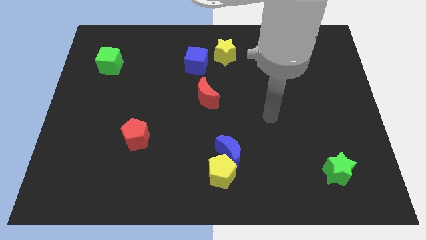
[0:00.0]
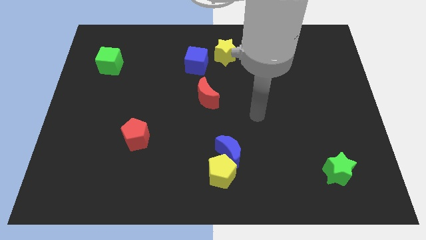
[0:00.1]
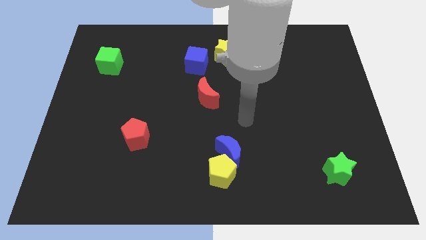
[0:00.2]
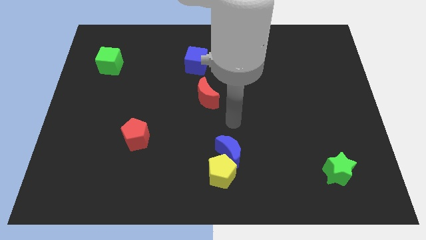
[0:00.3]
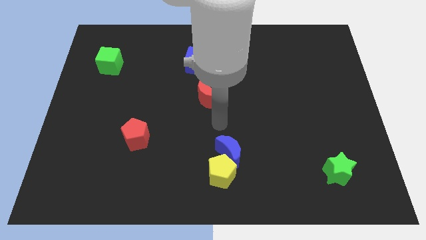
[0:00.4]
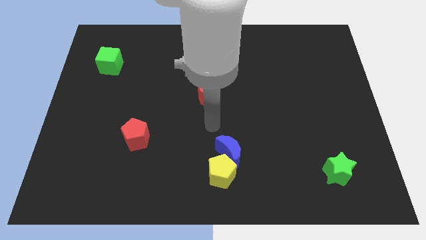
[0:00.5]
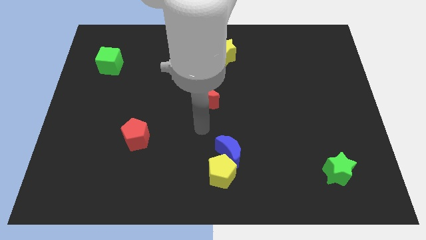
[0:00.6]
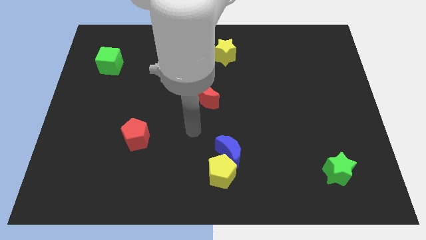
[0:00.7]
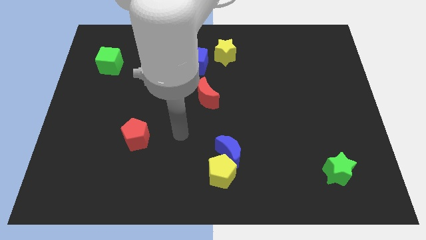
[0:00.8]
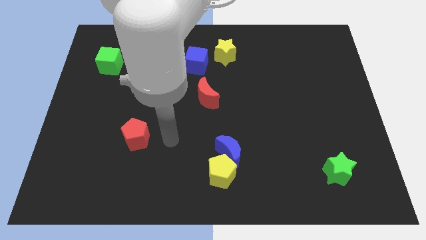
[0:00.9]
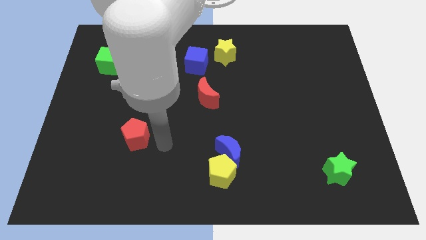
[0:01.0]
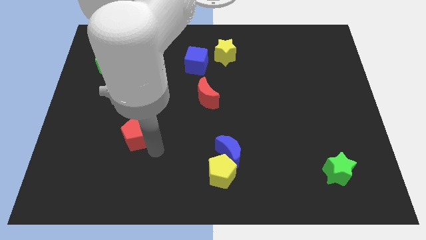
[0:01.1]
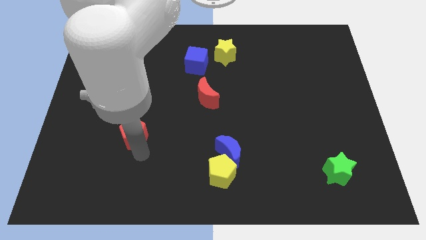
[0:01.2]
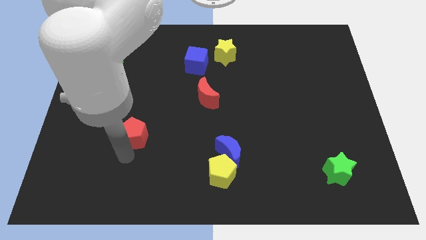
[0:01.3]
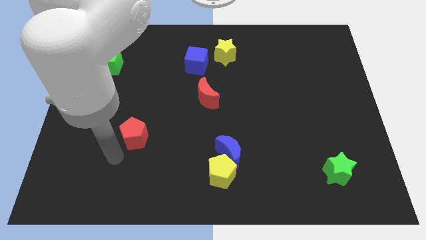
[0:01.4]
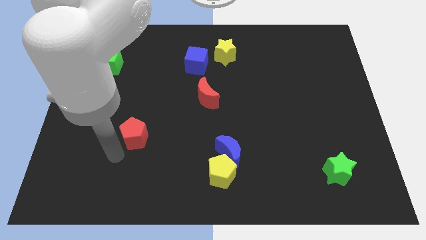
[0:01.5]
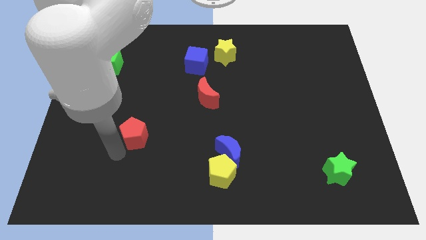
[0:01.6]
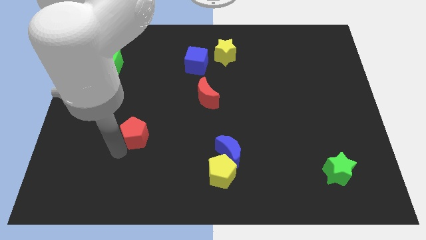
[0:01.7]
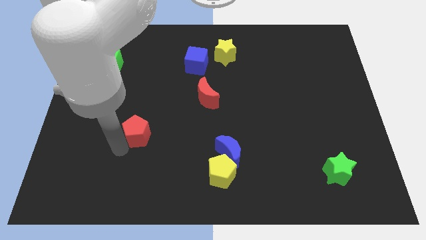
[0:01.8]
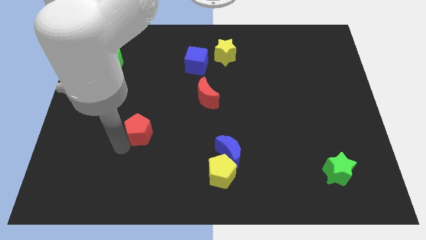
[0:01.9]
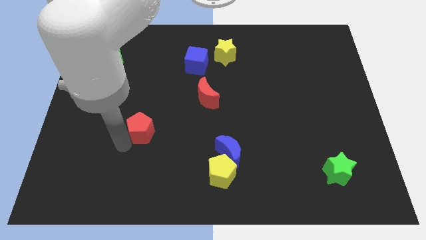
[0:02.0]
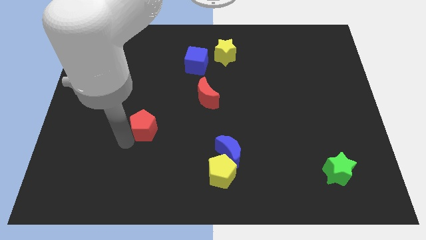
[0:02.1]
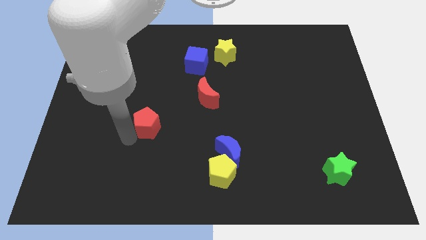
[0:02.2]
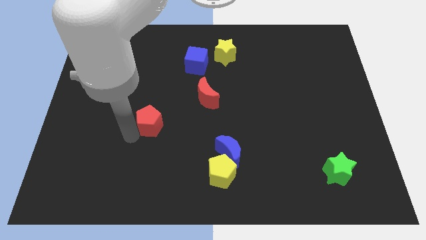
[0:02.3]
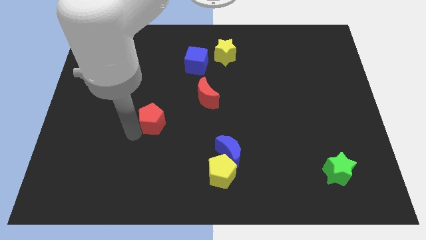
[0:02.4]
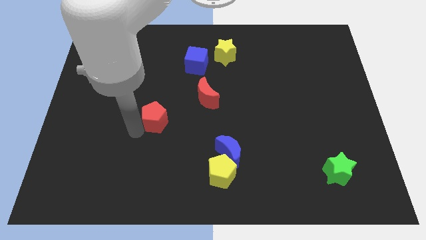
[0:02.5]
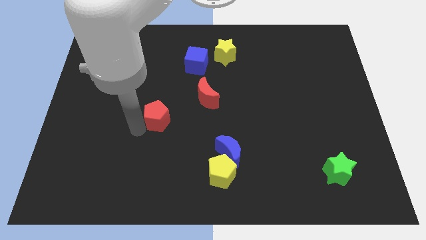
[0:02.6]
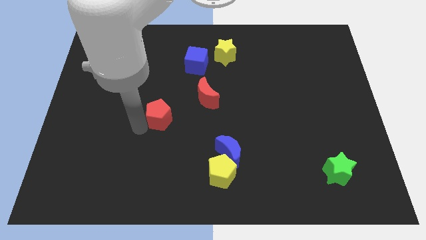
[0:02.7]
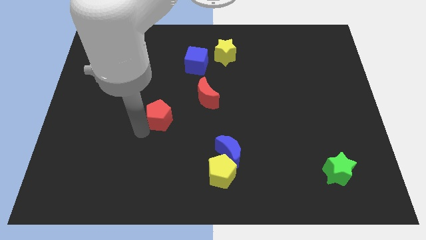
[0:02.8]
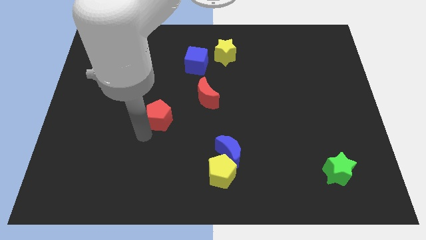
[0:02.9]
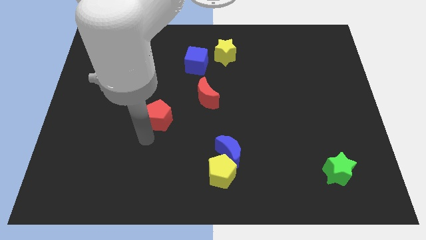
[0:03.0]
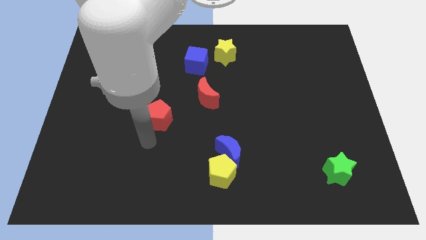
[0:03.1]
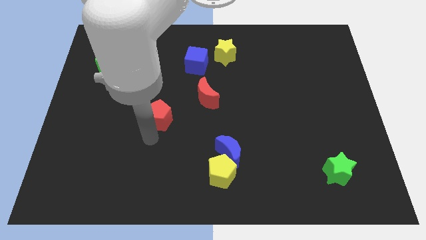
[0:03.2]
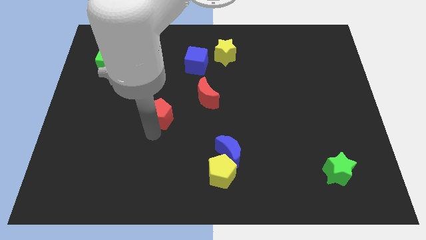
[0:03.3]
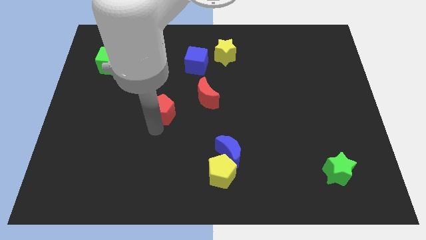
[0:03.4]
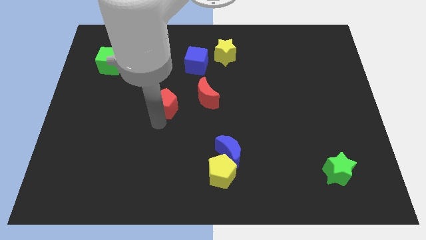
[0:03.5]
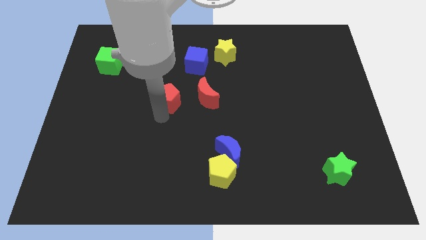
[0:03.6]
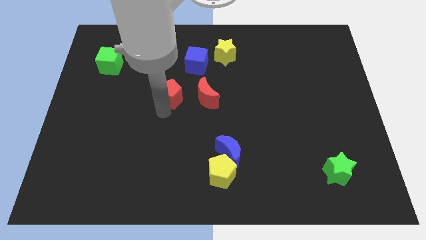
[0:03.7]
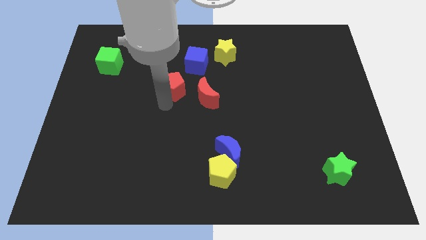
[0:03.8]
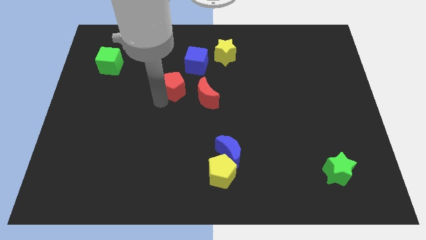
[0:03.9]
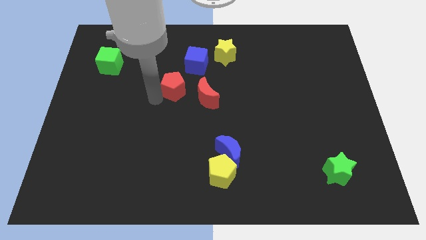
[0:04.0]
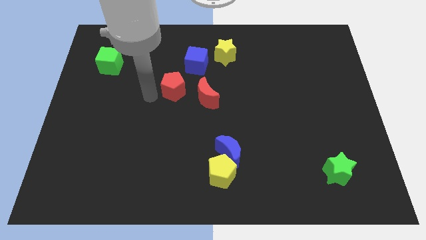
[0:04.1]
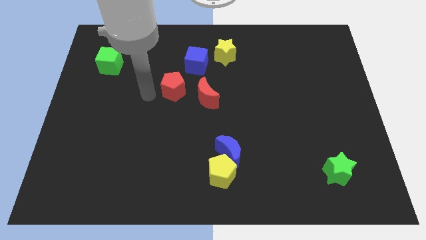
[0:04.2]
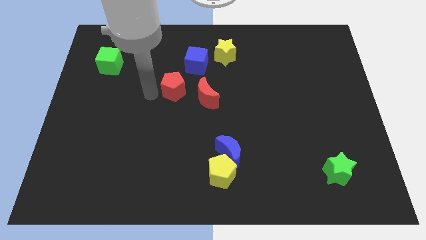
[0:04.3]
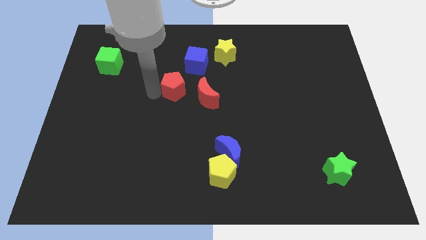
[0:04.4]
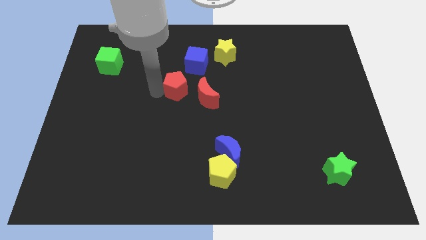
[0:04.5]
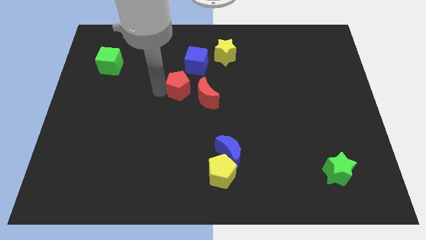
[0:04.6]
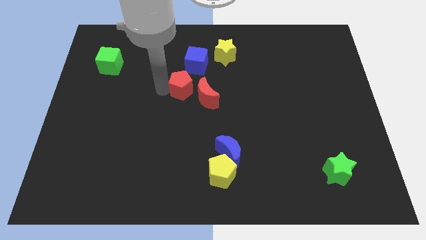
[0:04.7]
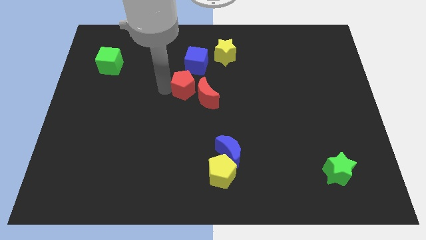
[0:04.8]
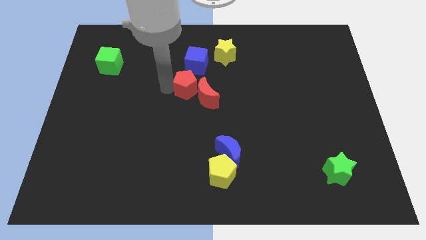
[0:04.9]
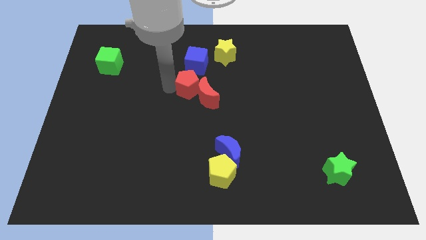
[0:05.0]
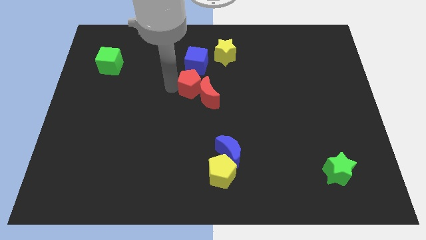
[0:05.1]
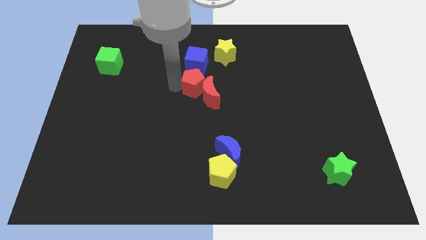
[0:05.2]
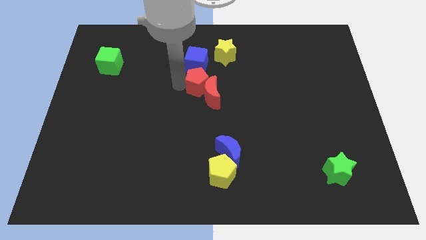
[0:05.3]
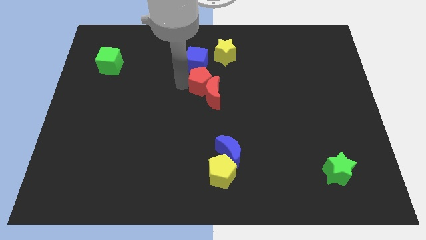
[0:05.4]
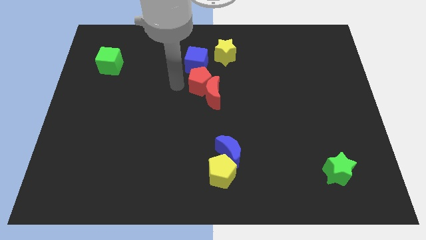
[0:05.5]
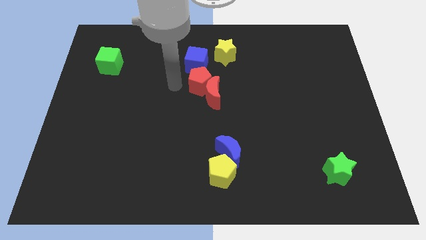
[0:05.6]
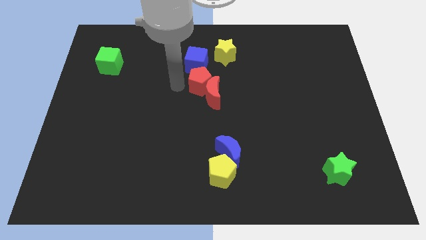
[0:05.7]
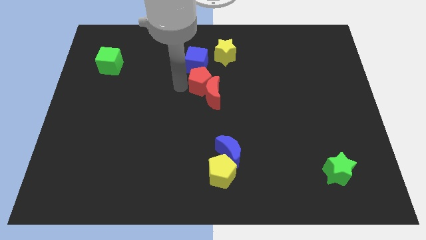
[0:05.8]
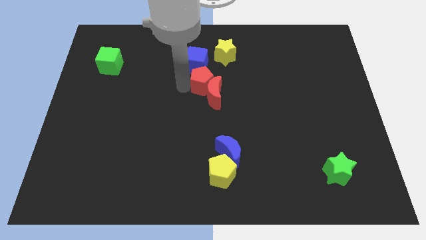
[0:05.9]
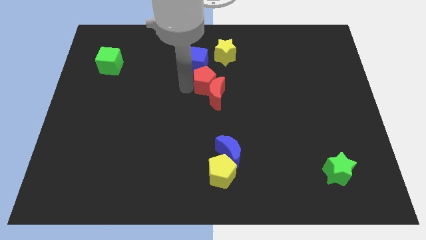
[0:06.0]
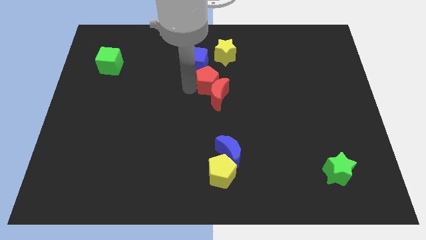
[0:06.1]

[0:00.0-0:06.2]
move the red pentagon to the bottom of the yellow star

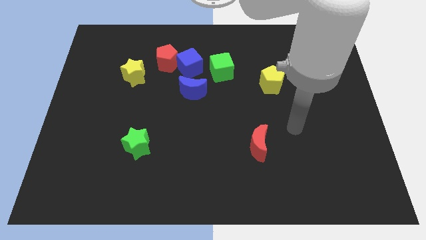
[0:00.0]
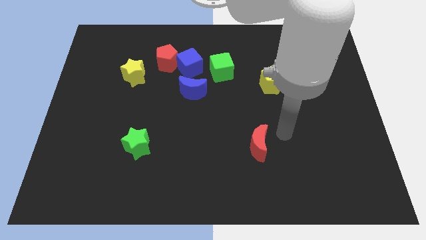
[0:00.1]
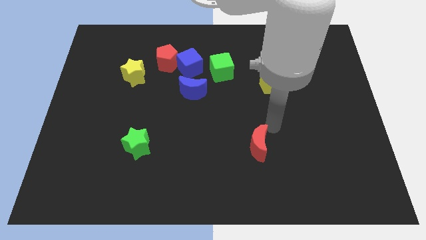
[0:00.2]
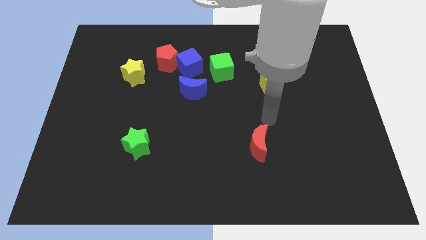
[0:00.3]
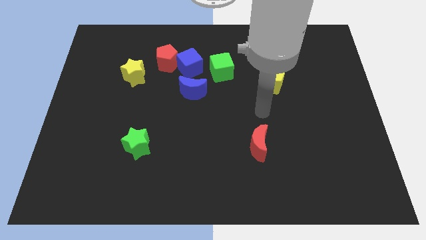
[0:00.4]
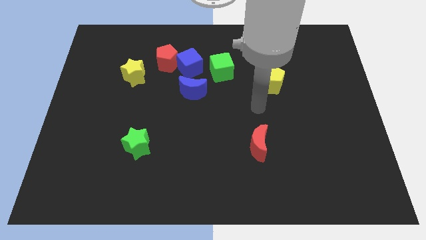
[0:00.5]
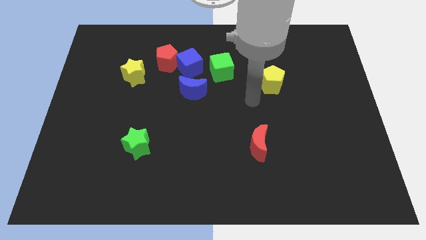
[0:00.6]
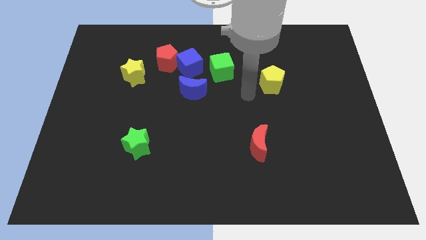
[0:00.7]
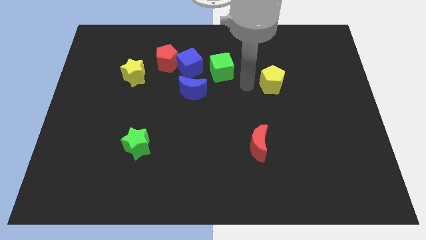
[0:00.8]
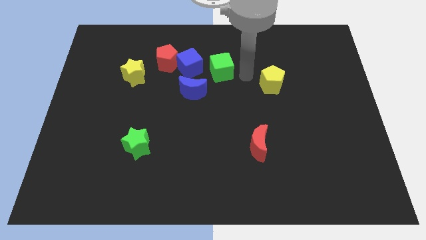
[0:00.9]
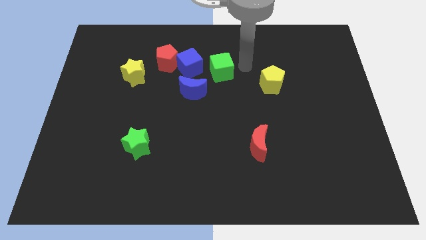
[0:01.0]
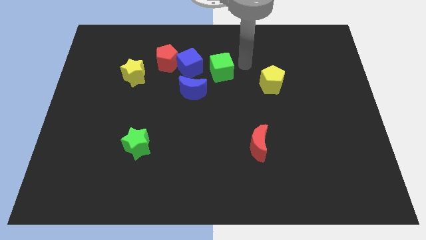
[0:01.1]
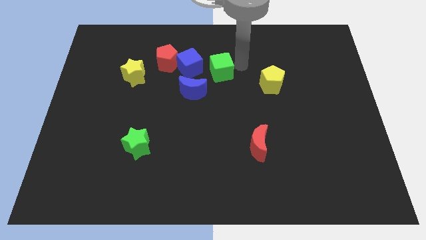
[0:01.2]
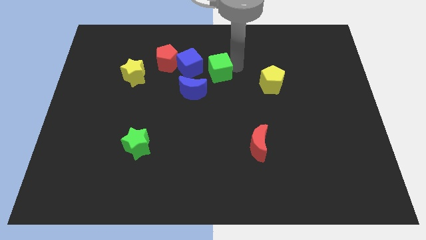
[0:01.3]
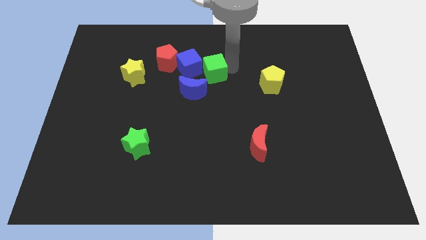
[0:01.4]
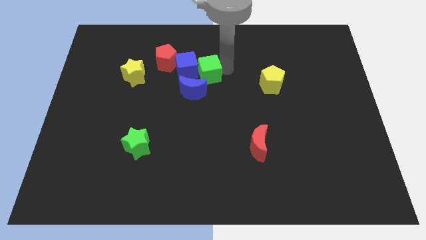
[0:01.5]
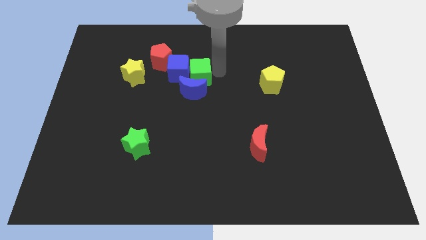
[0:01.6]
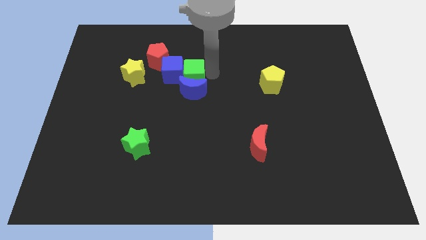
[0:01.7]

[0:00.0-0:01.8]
move the green cube diagonally up and to the left of the blue moon
